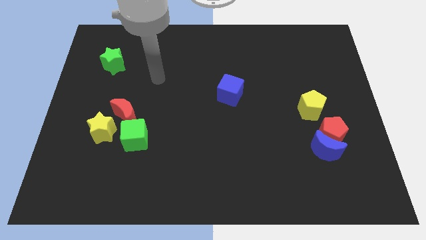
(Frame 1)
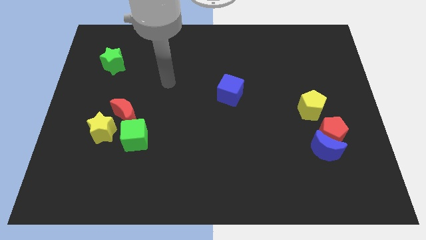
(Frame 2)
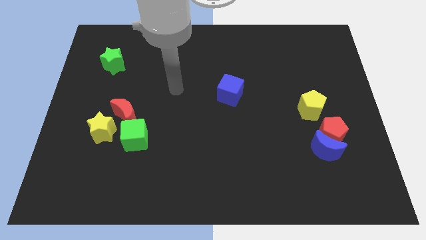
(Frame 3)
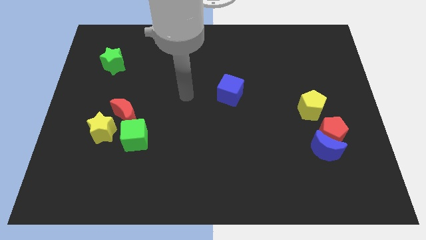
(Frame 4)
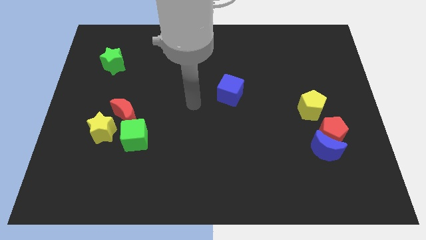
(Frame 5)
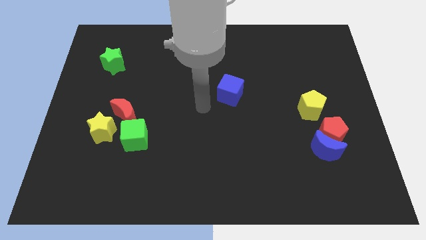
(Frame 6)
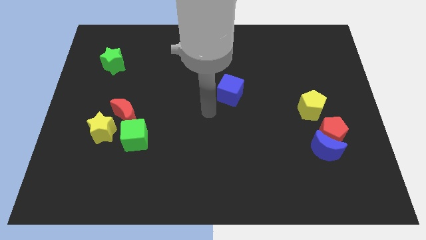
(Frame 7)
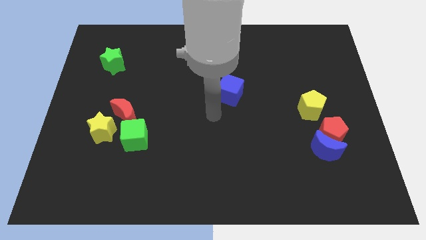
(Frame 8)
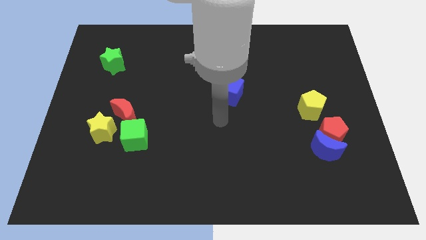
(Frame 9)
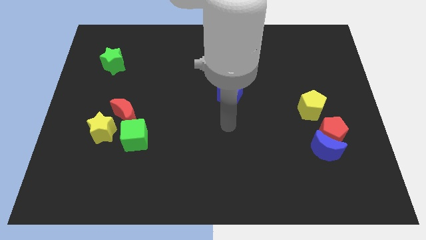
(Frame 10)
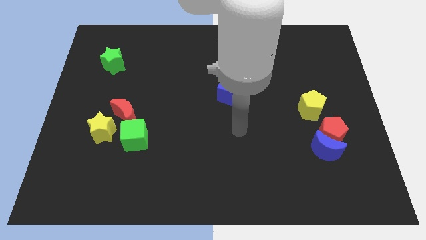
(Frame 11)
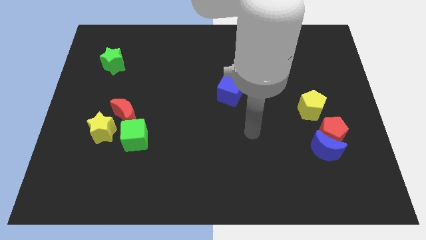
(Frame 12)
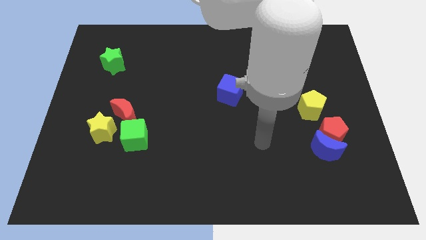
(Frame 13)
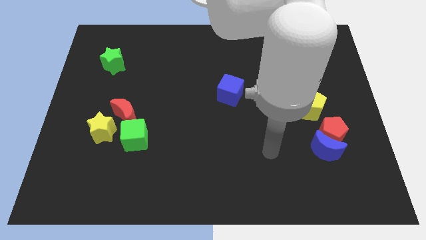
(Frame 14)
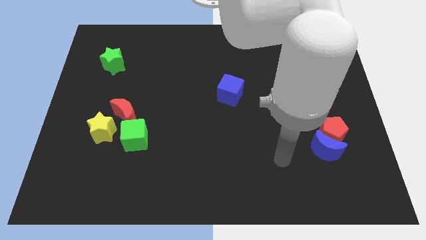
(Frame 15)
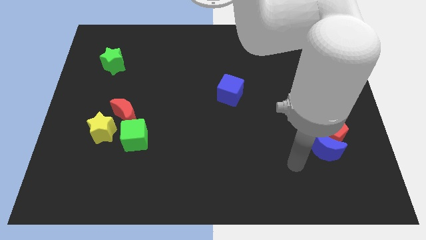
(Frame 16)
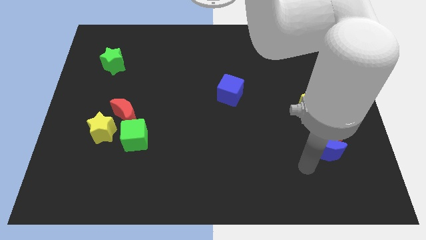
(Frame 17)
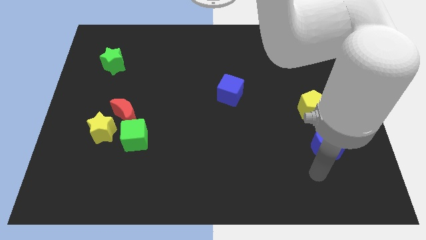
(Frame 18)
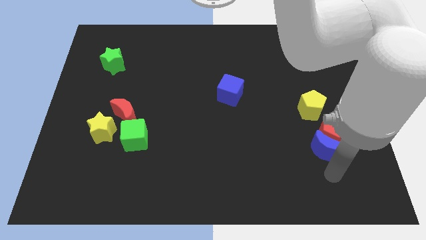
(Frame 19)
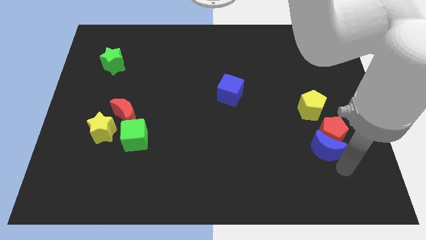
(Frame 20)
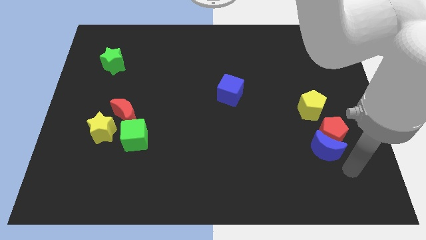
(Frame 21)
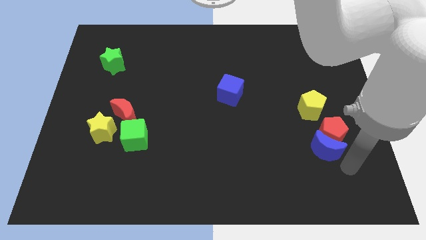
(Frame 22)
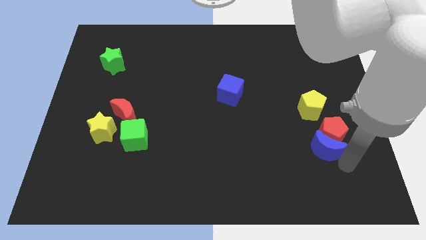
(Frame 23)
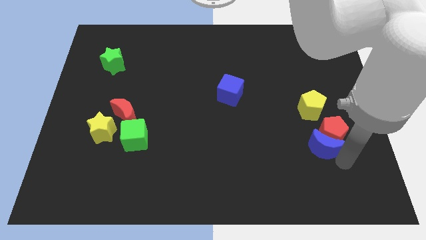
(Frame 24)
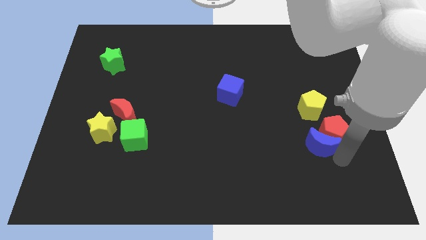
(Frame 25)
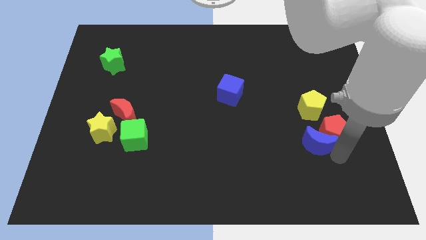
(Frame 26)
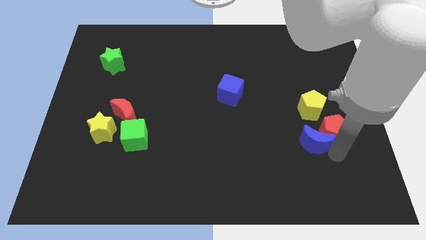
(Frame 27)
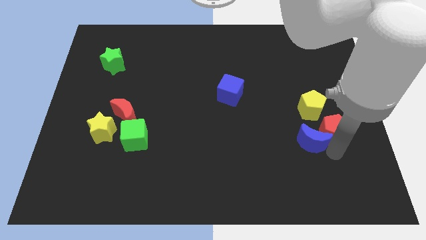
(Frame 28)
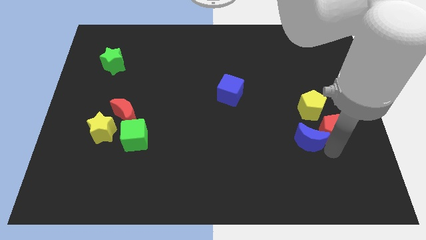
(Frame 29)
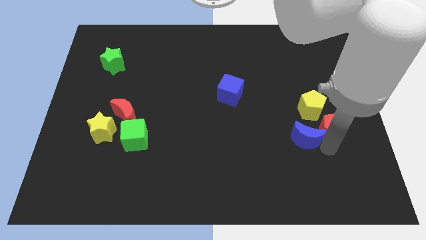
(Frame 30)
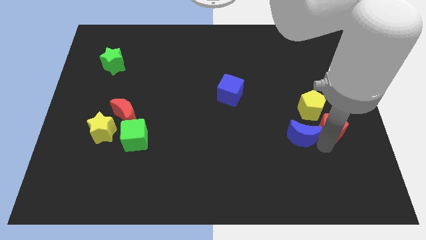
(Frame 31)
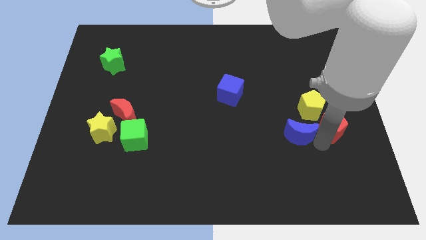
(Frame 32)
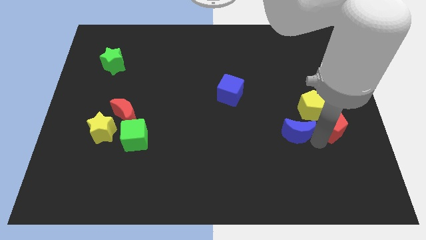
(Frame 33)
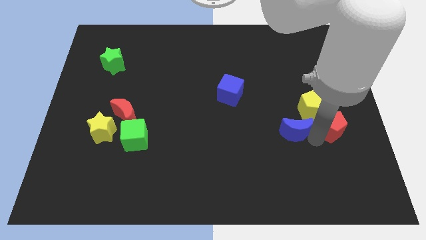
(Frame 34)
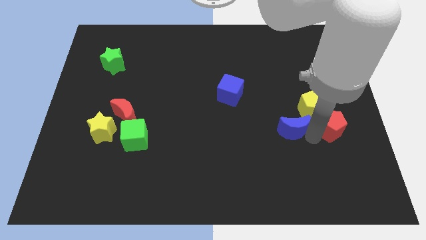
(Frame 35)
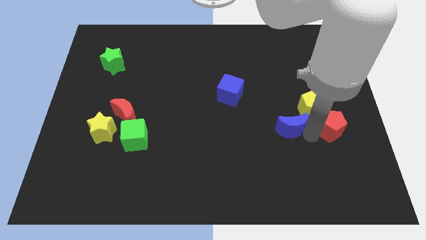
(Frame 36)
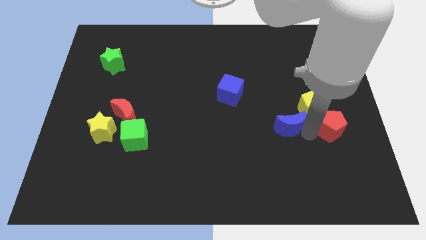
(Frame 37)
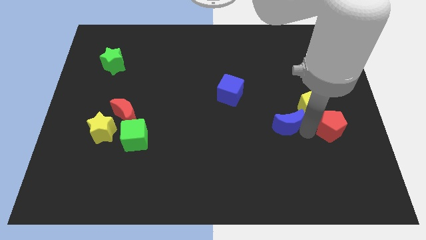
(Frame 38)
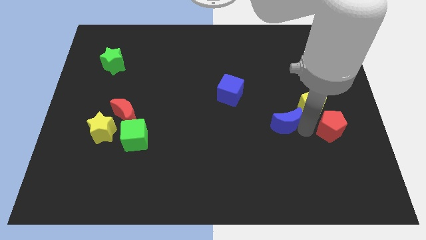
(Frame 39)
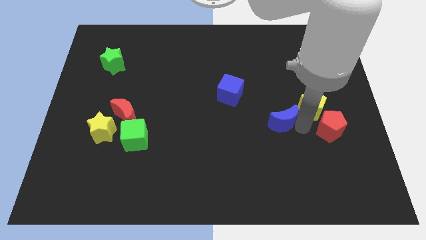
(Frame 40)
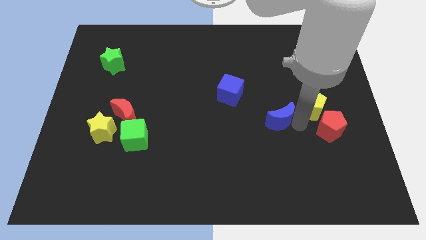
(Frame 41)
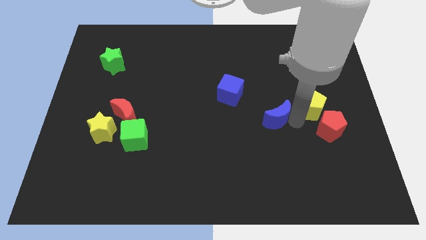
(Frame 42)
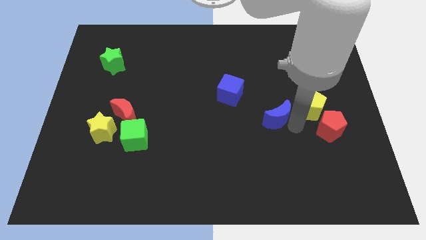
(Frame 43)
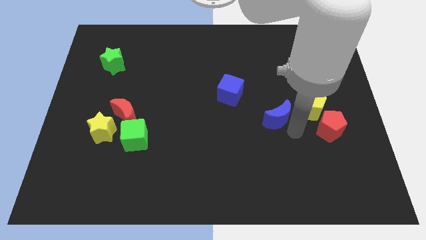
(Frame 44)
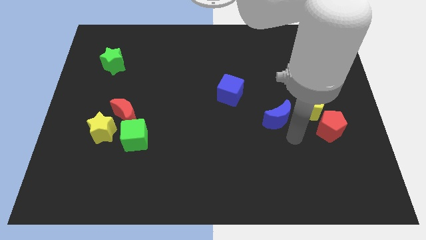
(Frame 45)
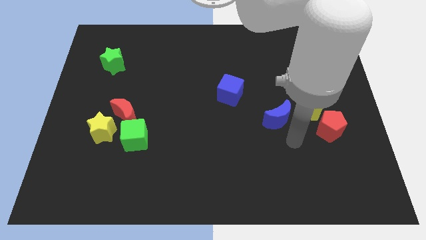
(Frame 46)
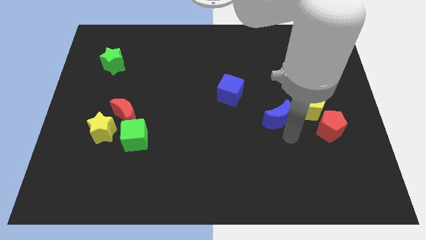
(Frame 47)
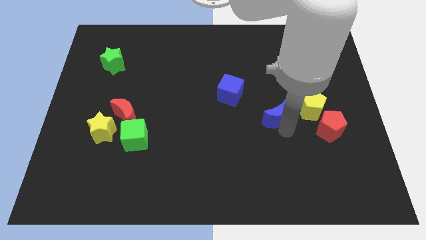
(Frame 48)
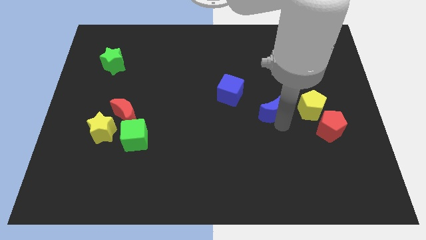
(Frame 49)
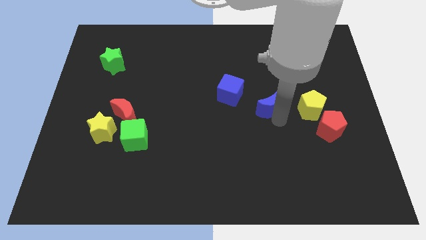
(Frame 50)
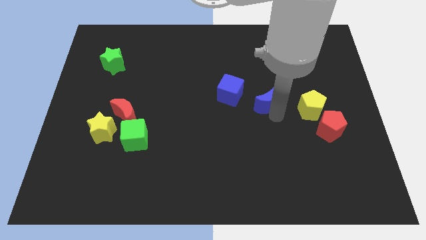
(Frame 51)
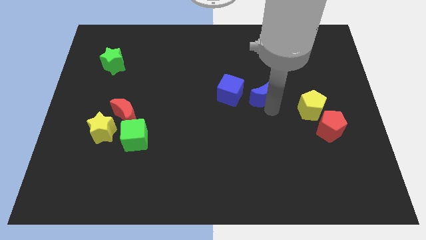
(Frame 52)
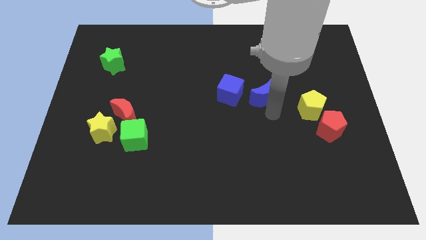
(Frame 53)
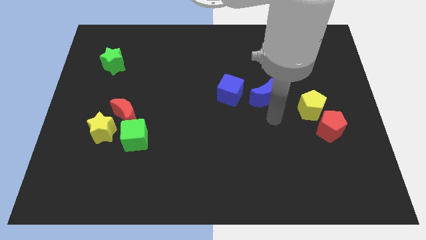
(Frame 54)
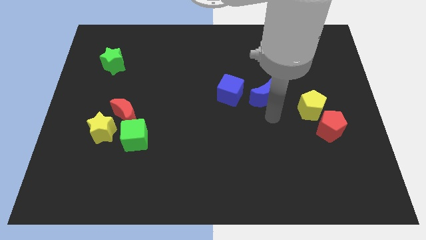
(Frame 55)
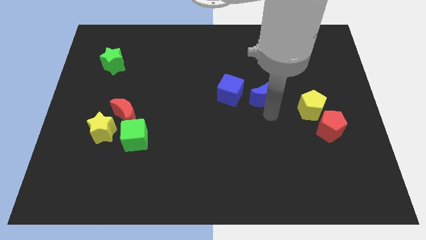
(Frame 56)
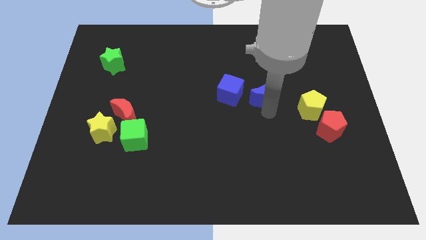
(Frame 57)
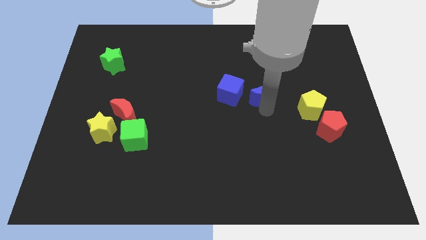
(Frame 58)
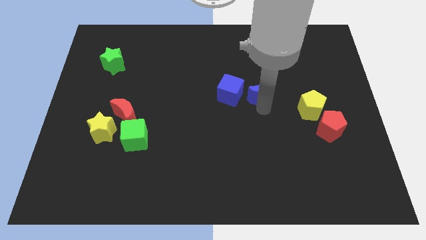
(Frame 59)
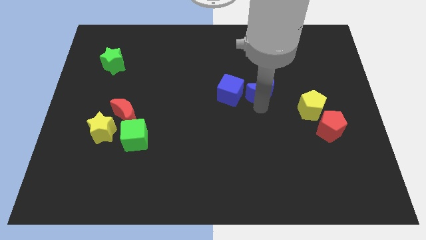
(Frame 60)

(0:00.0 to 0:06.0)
slide the blue moon up and left

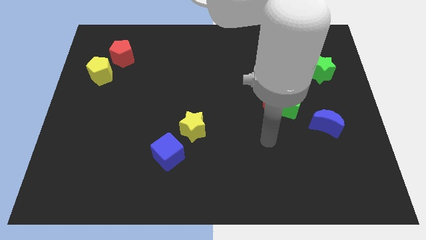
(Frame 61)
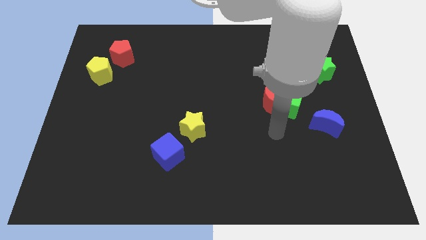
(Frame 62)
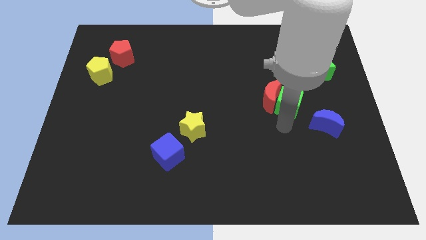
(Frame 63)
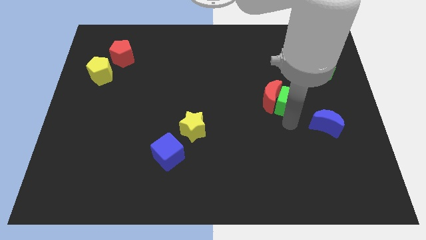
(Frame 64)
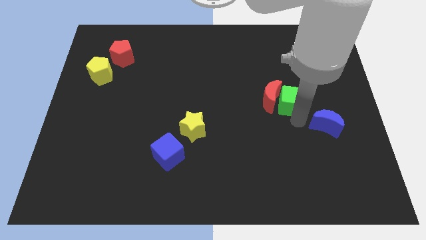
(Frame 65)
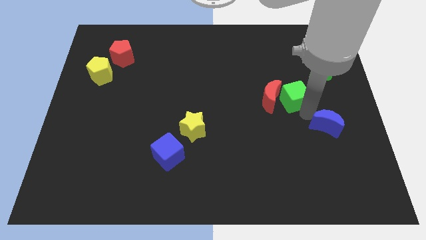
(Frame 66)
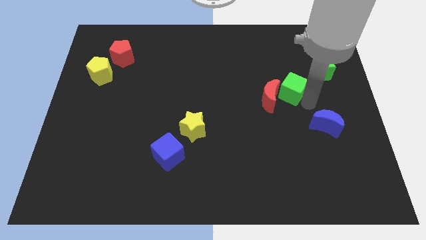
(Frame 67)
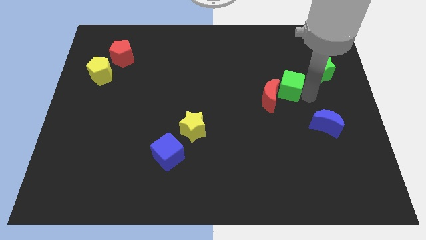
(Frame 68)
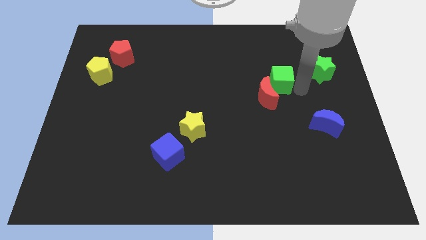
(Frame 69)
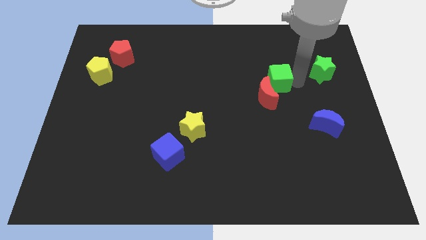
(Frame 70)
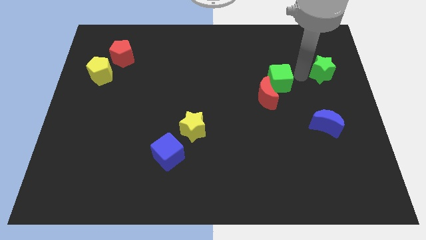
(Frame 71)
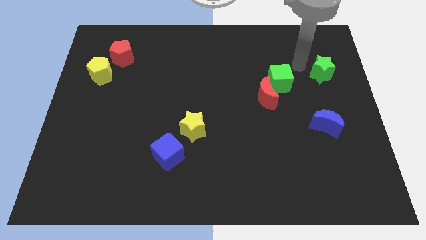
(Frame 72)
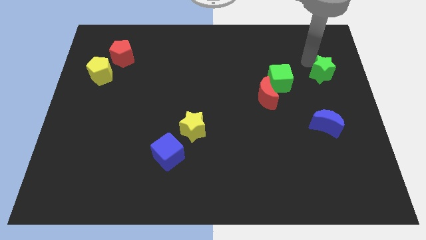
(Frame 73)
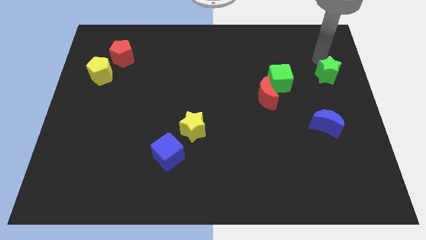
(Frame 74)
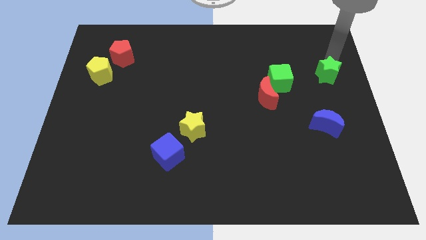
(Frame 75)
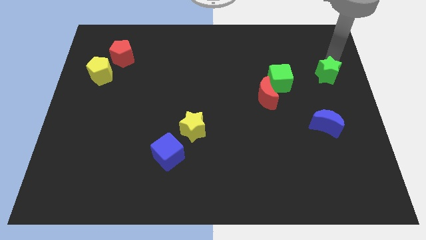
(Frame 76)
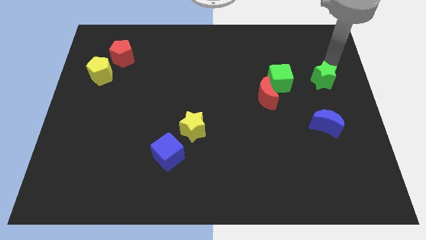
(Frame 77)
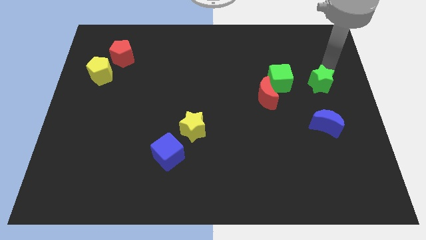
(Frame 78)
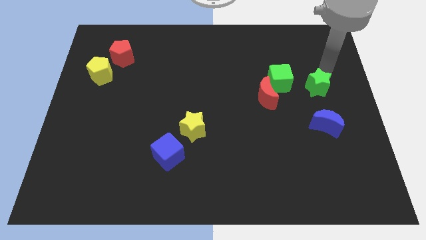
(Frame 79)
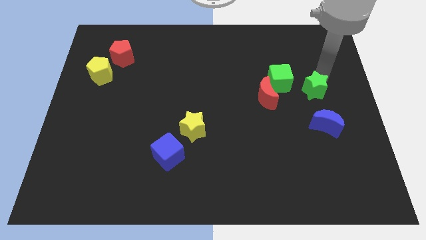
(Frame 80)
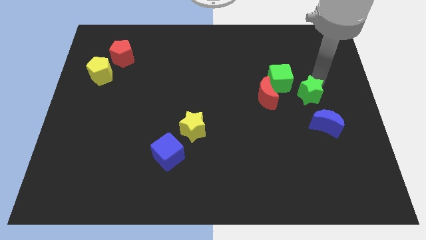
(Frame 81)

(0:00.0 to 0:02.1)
slide the green star downwards and to the left diagonally slightly
